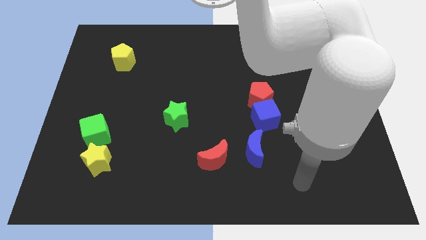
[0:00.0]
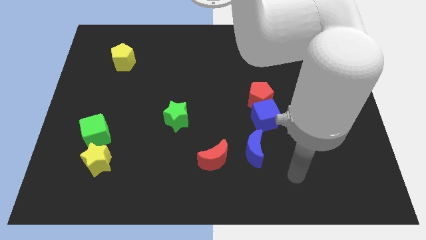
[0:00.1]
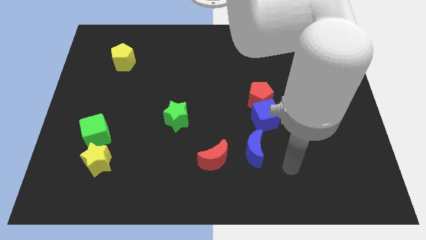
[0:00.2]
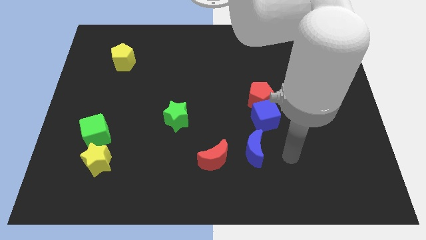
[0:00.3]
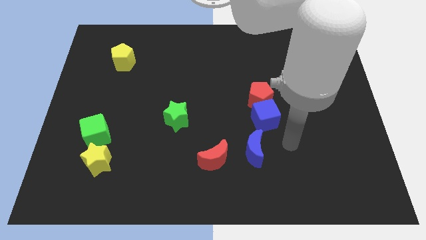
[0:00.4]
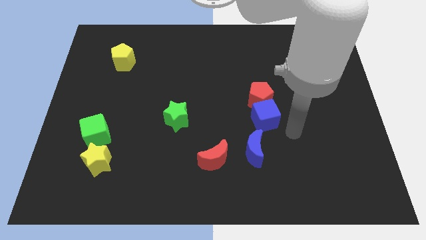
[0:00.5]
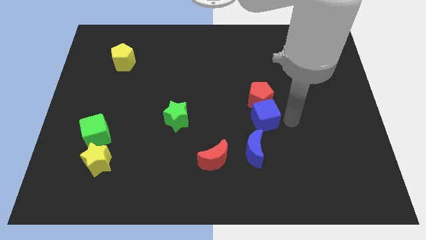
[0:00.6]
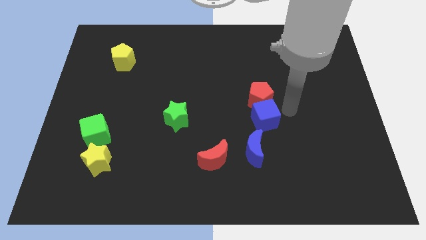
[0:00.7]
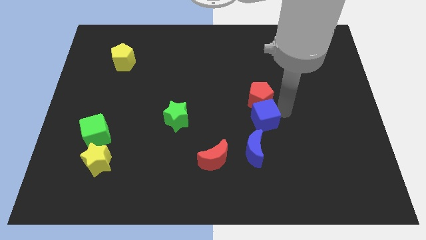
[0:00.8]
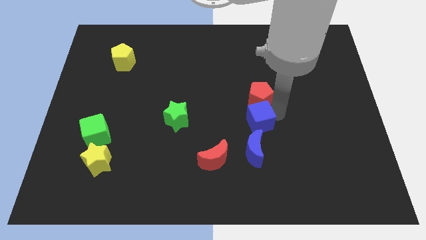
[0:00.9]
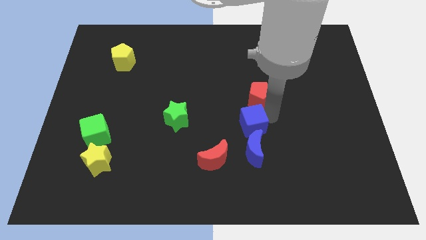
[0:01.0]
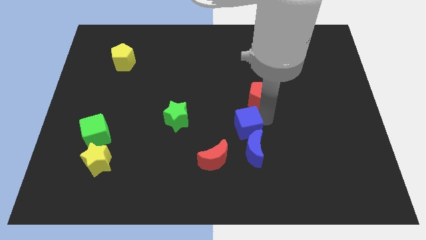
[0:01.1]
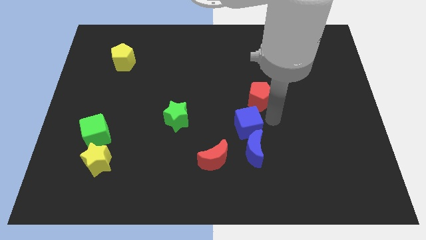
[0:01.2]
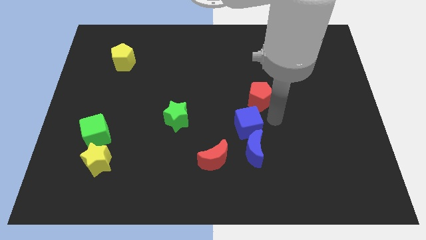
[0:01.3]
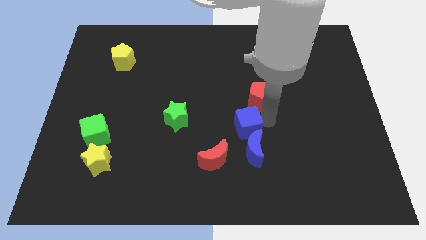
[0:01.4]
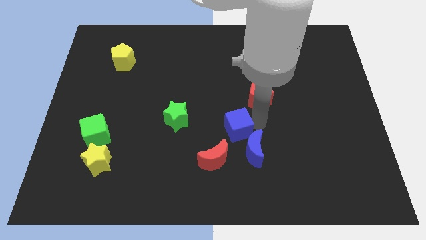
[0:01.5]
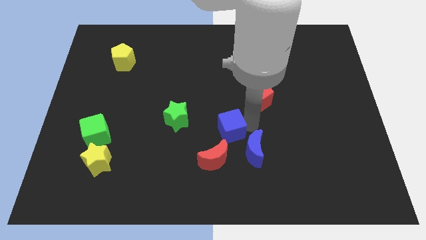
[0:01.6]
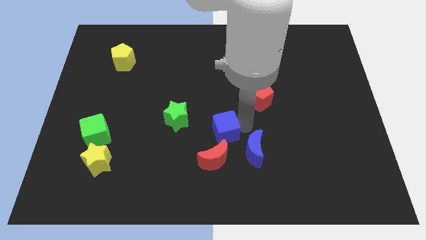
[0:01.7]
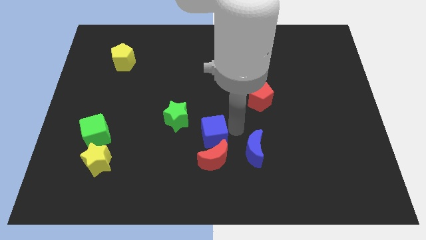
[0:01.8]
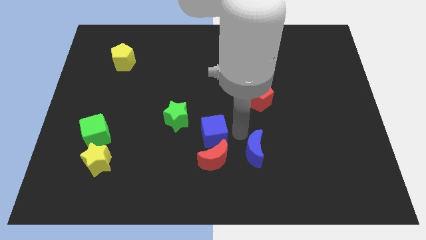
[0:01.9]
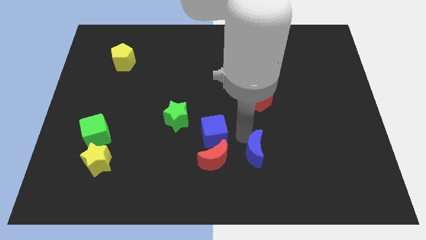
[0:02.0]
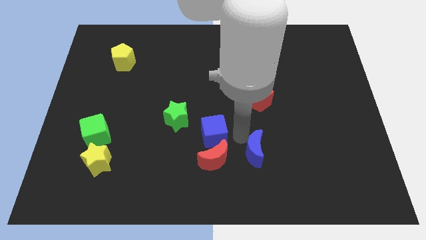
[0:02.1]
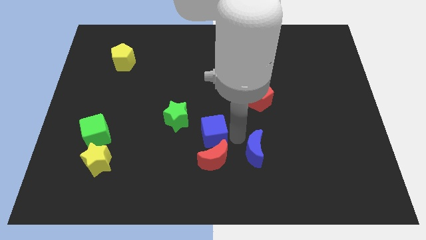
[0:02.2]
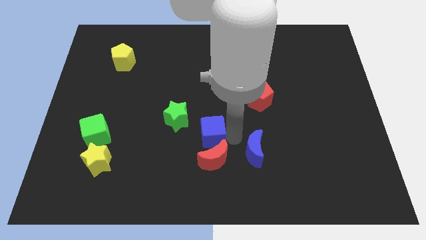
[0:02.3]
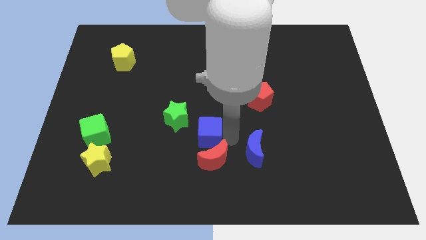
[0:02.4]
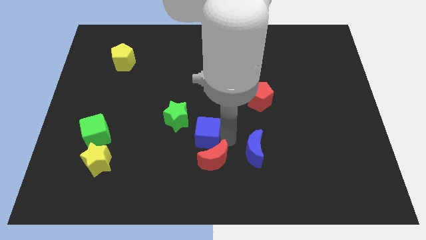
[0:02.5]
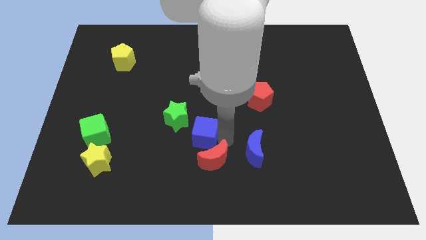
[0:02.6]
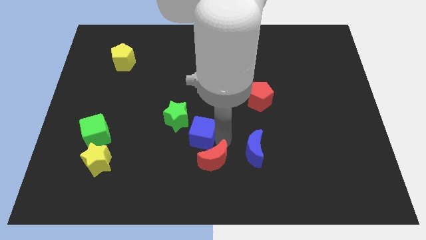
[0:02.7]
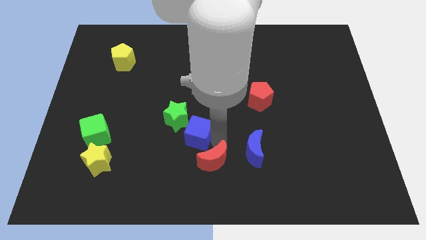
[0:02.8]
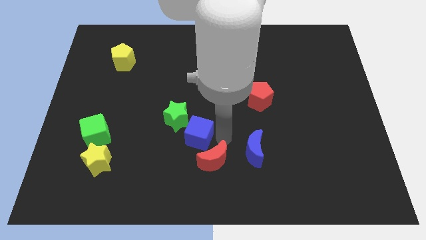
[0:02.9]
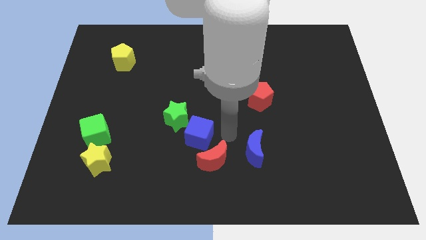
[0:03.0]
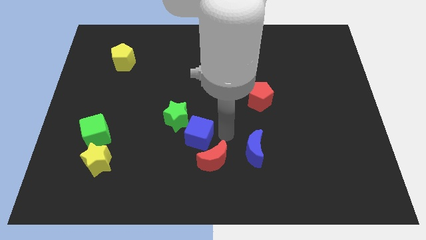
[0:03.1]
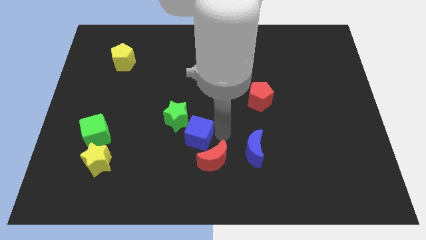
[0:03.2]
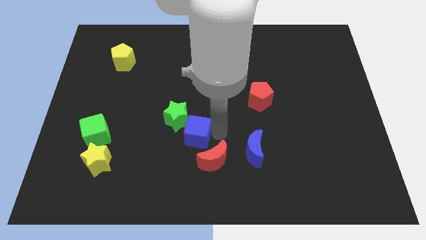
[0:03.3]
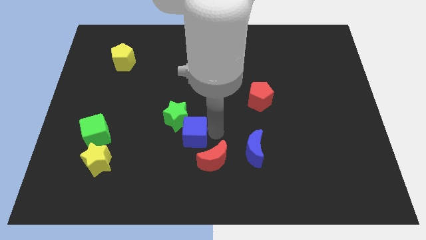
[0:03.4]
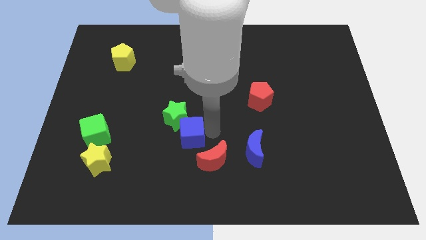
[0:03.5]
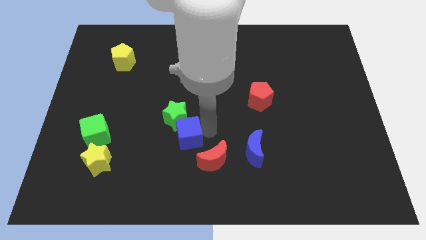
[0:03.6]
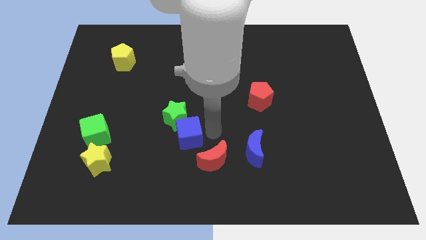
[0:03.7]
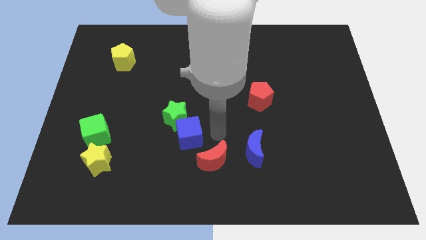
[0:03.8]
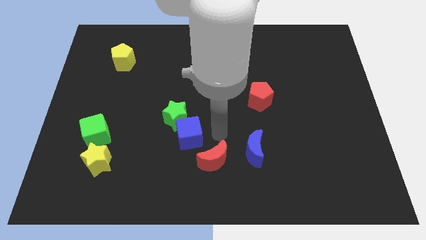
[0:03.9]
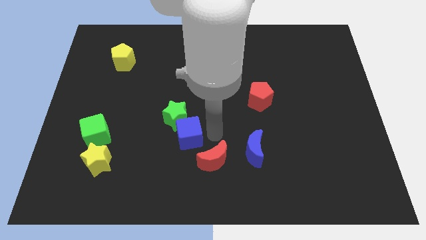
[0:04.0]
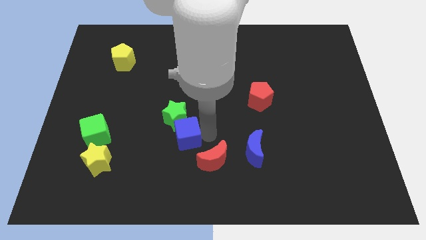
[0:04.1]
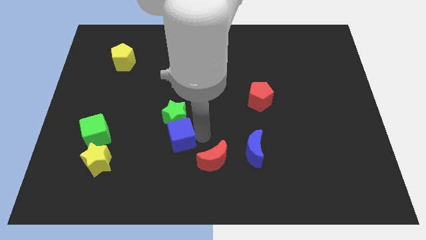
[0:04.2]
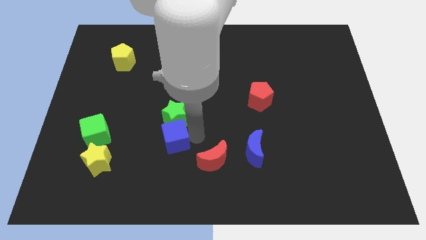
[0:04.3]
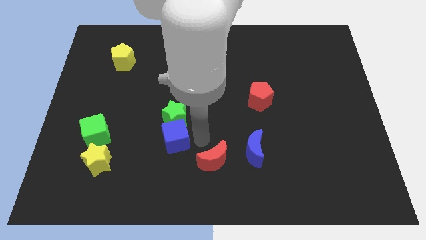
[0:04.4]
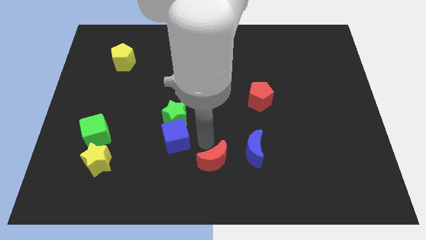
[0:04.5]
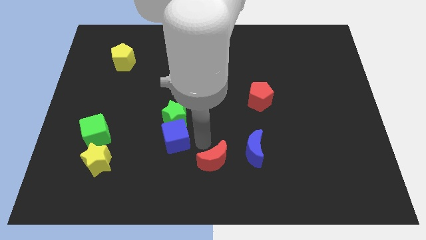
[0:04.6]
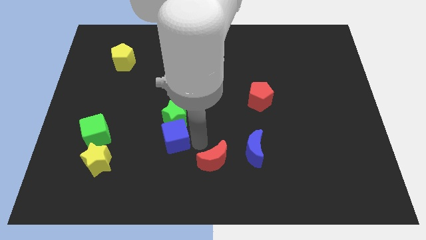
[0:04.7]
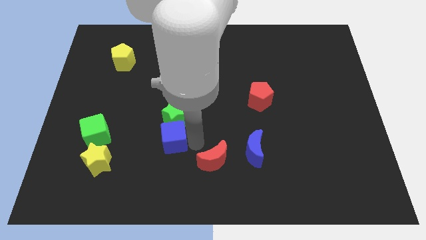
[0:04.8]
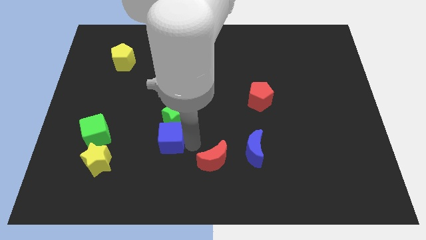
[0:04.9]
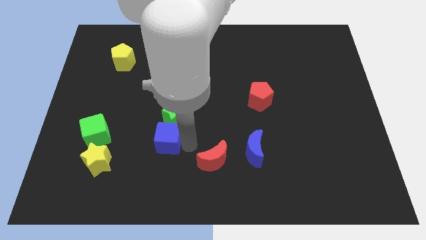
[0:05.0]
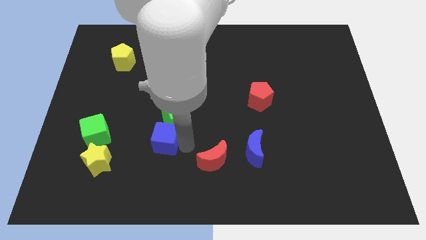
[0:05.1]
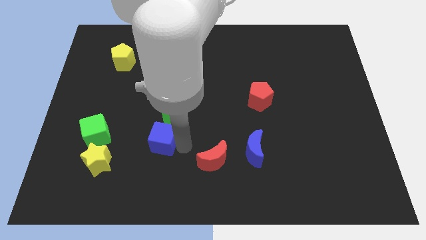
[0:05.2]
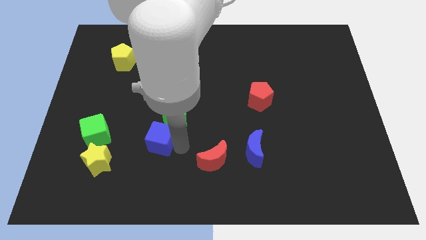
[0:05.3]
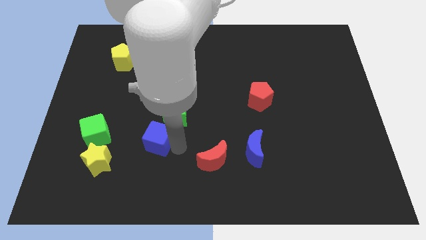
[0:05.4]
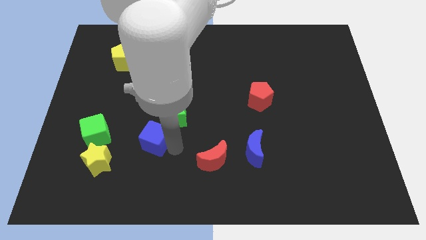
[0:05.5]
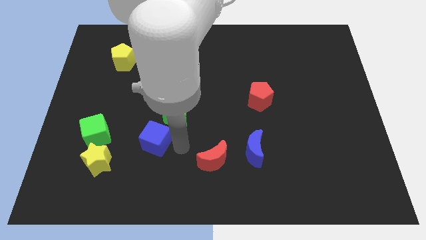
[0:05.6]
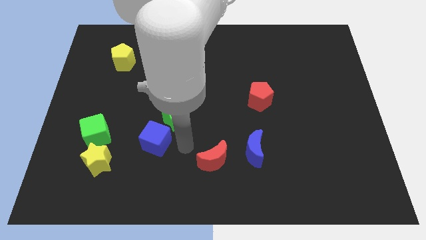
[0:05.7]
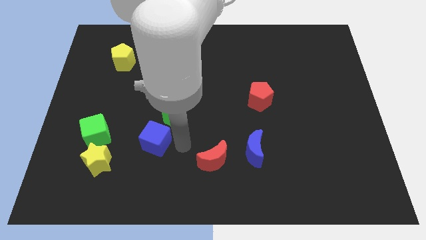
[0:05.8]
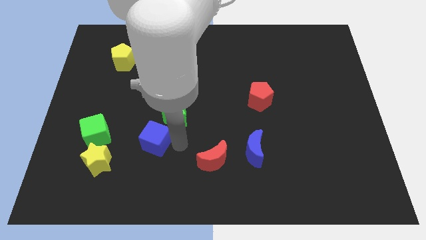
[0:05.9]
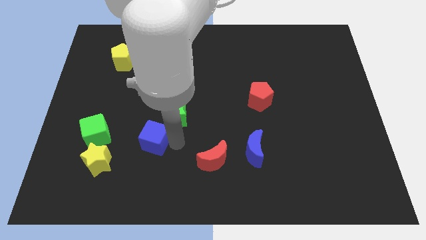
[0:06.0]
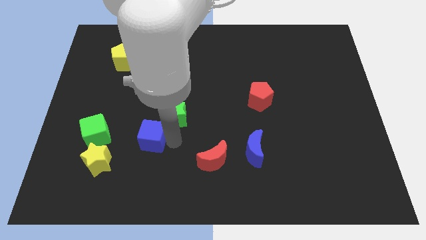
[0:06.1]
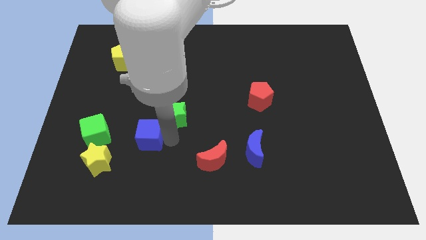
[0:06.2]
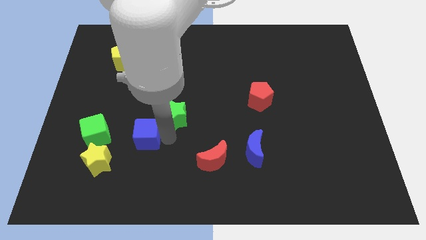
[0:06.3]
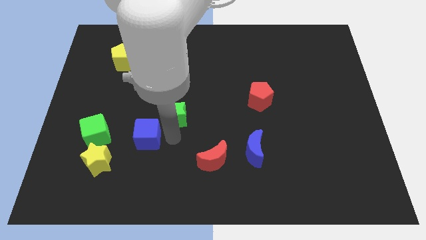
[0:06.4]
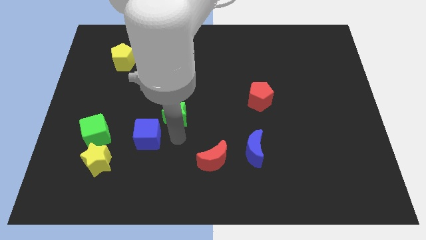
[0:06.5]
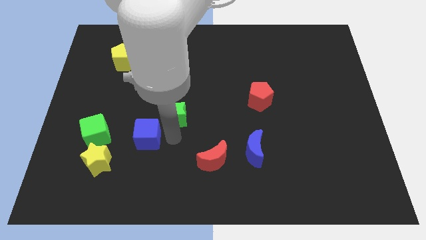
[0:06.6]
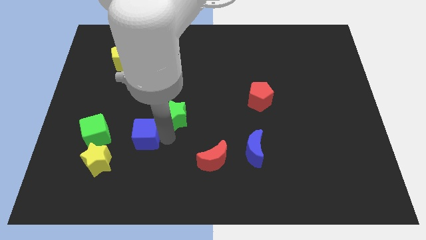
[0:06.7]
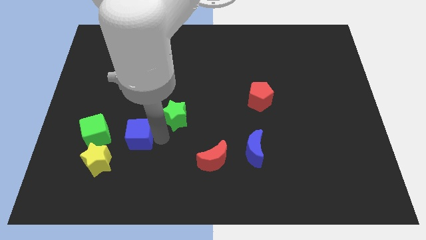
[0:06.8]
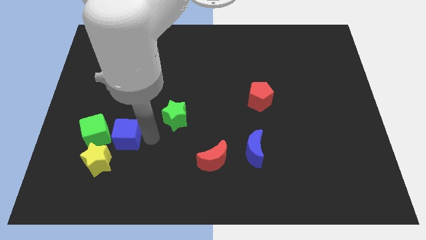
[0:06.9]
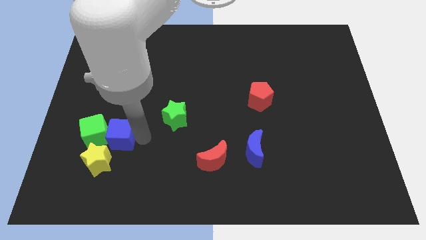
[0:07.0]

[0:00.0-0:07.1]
move the blue cube towards the green cube

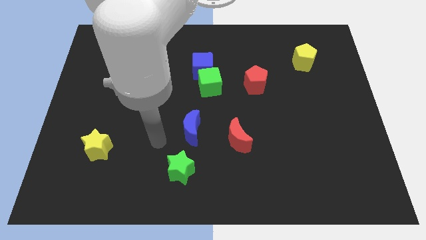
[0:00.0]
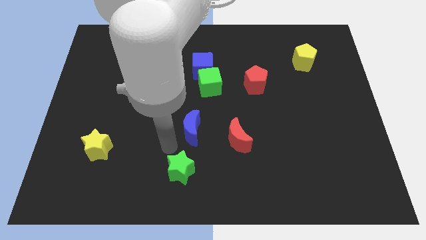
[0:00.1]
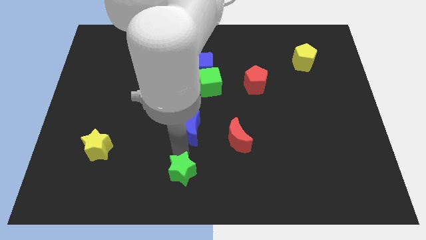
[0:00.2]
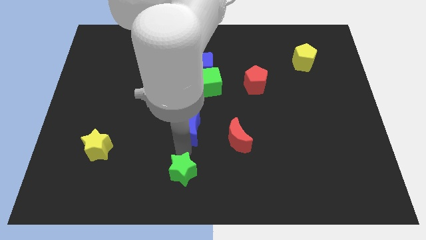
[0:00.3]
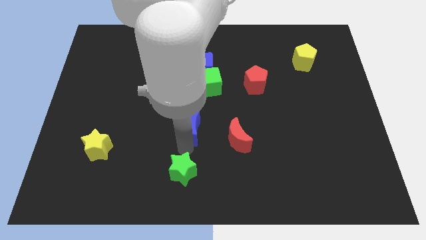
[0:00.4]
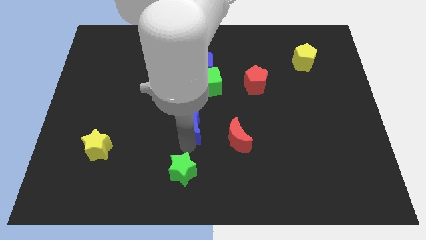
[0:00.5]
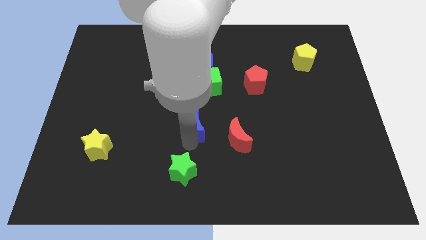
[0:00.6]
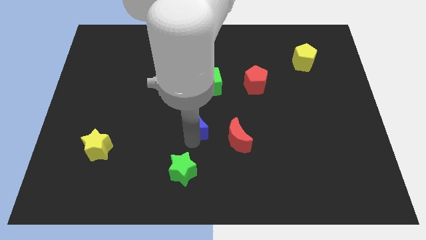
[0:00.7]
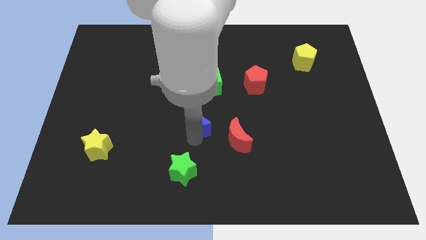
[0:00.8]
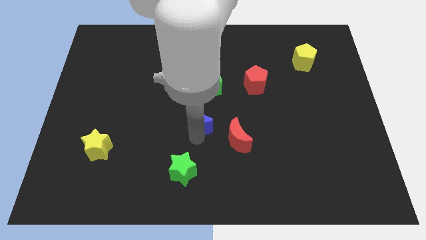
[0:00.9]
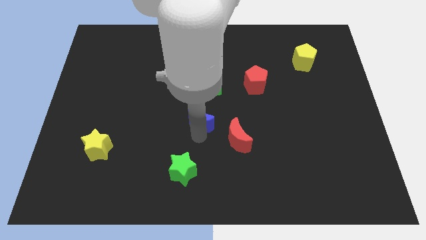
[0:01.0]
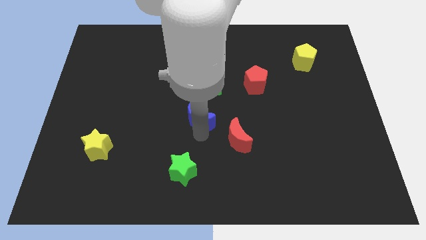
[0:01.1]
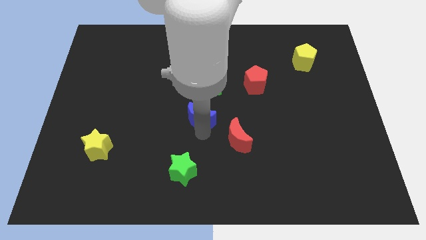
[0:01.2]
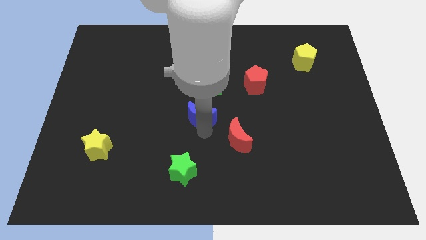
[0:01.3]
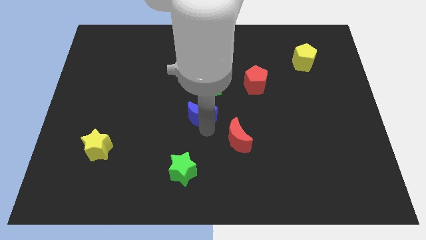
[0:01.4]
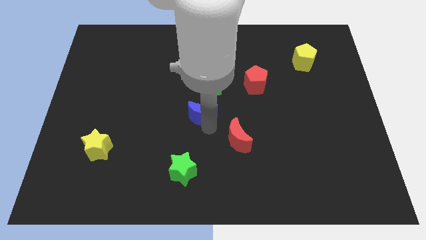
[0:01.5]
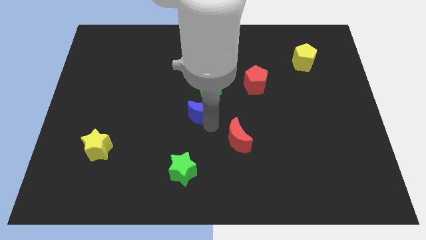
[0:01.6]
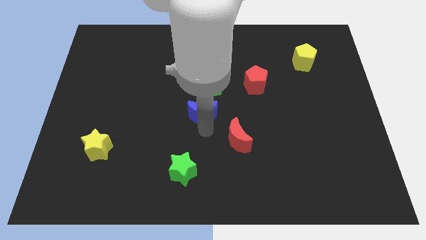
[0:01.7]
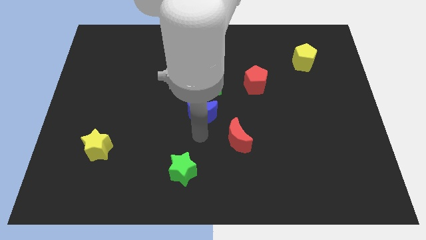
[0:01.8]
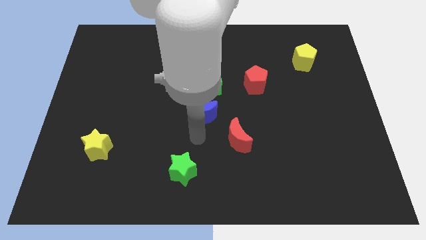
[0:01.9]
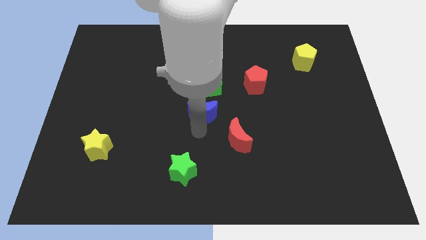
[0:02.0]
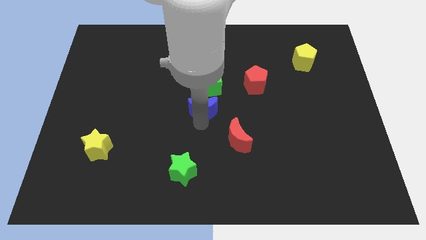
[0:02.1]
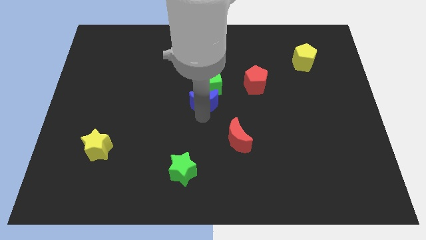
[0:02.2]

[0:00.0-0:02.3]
slide the blue moon close to the green cube
